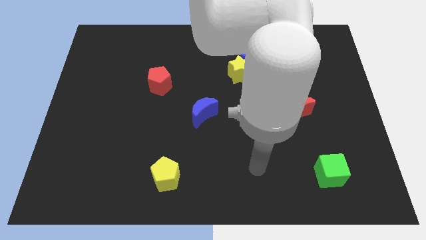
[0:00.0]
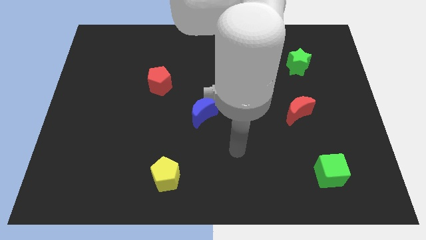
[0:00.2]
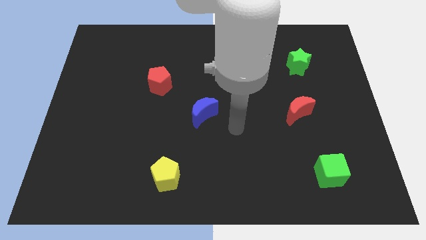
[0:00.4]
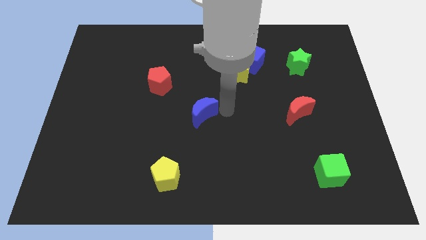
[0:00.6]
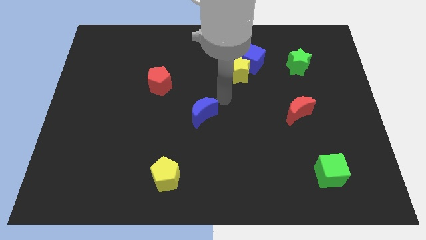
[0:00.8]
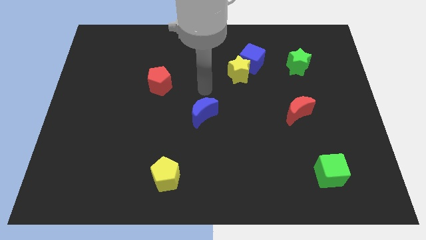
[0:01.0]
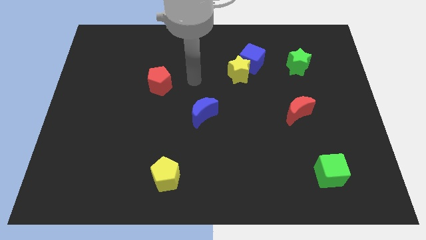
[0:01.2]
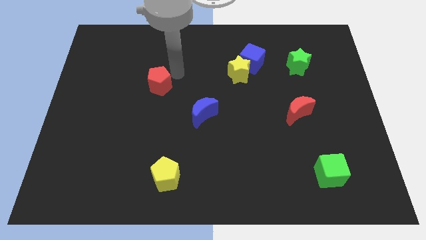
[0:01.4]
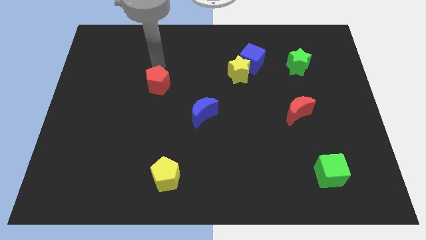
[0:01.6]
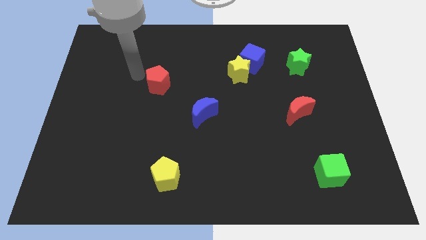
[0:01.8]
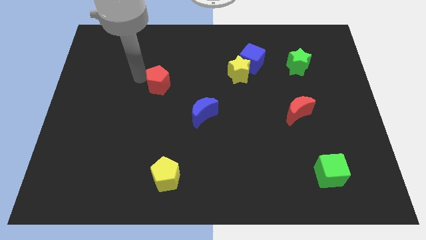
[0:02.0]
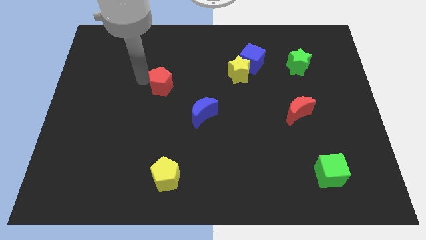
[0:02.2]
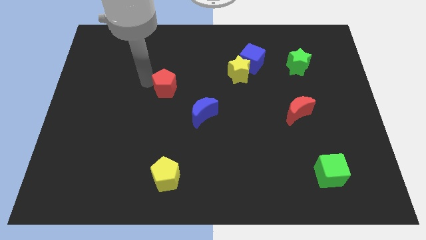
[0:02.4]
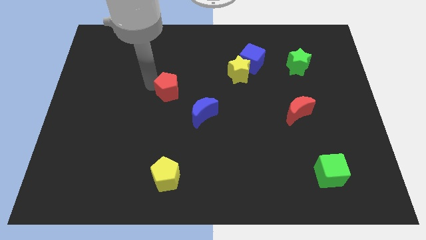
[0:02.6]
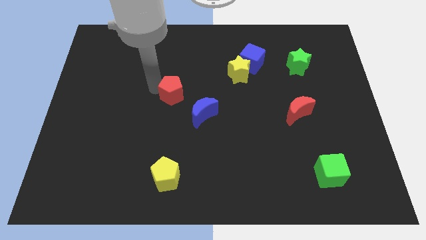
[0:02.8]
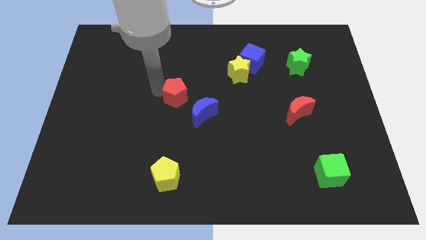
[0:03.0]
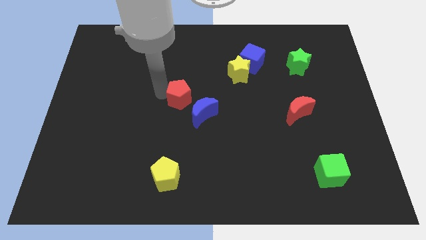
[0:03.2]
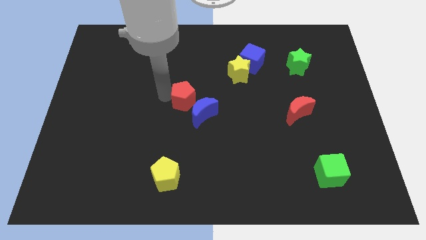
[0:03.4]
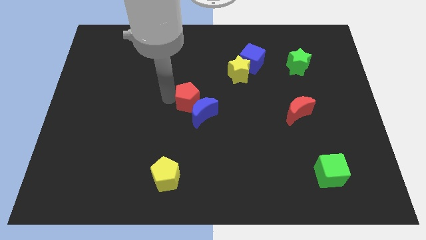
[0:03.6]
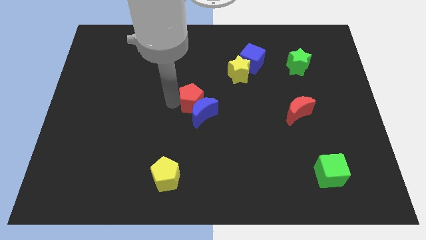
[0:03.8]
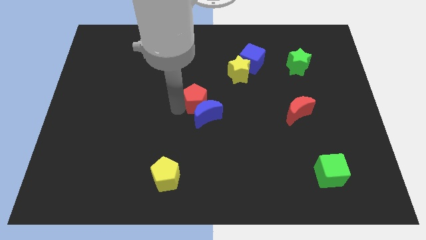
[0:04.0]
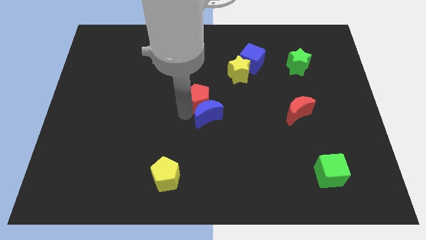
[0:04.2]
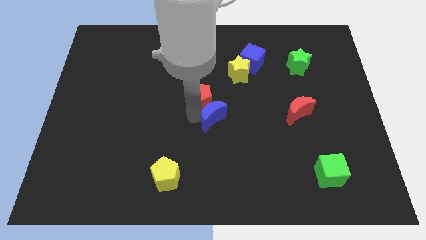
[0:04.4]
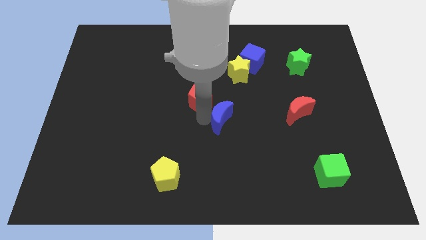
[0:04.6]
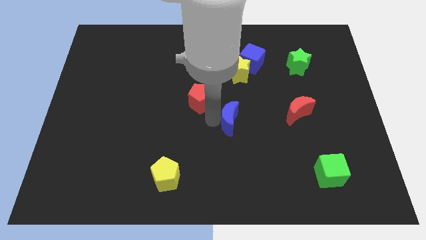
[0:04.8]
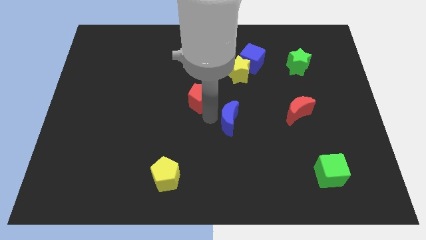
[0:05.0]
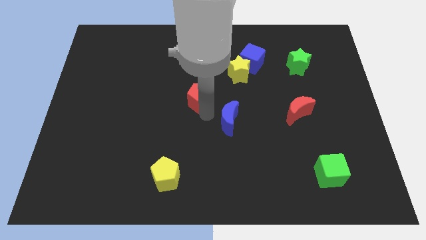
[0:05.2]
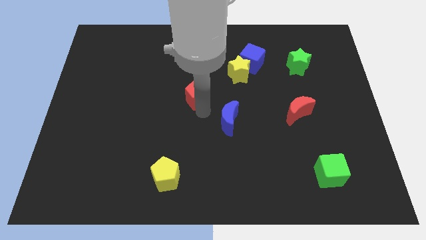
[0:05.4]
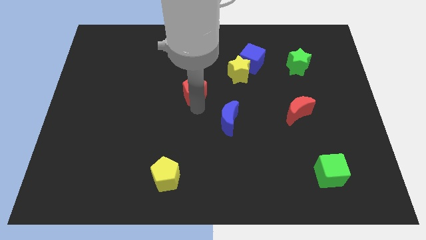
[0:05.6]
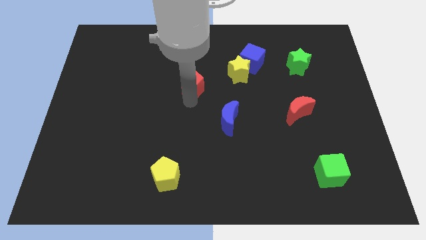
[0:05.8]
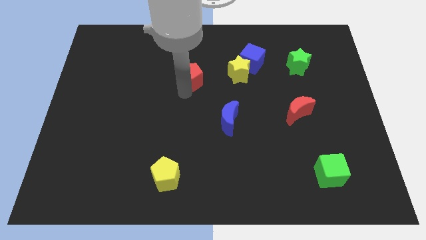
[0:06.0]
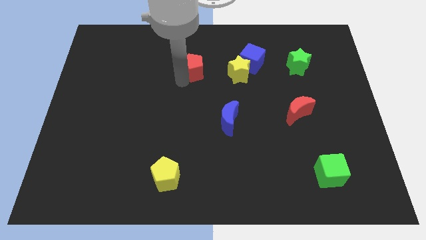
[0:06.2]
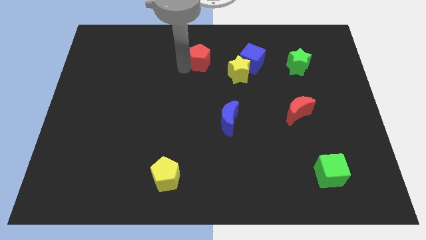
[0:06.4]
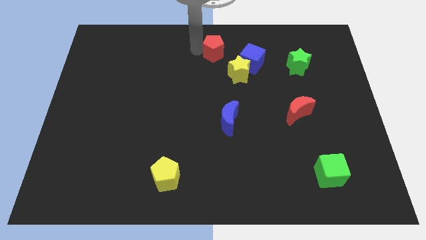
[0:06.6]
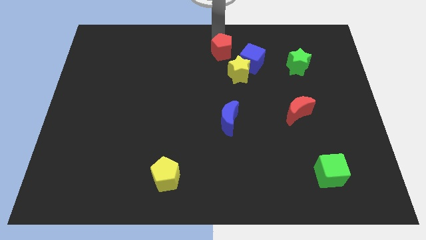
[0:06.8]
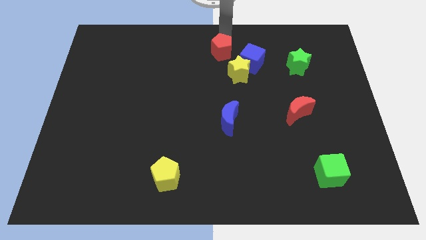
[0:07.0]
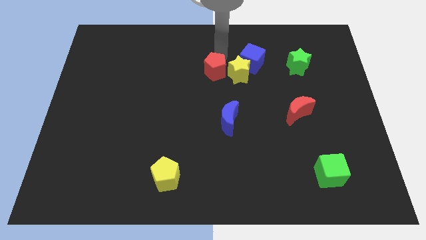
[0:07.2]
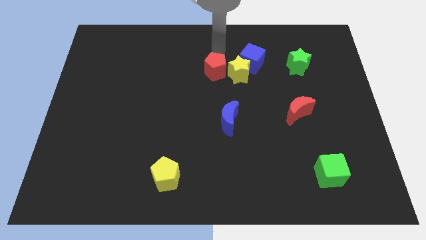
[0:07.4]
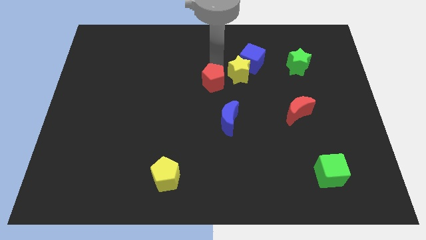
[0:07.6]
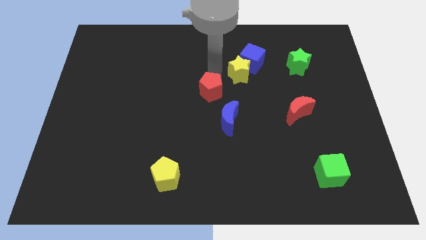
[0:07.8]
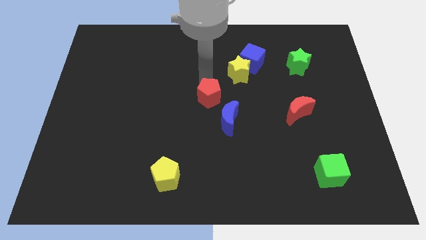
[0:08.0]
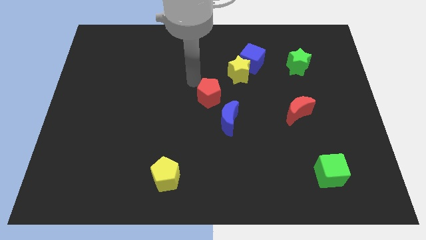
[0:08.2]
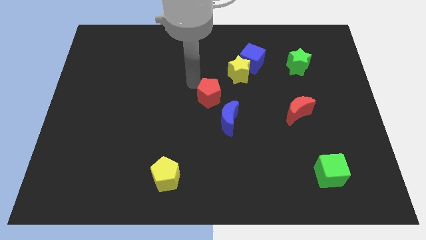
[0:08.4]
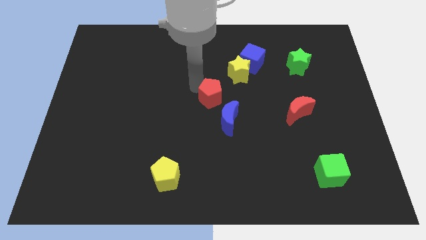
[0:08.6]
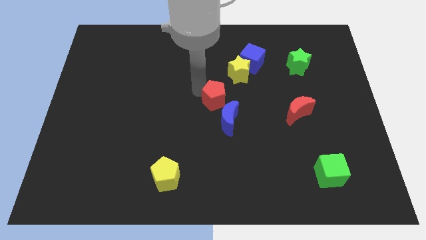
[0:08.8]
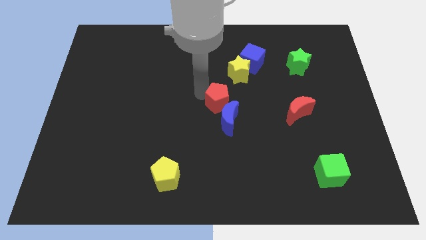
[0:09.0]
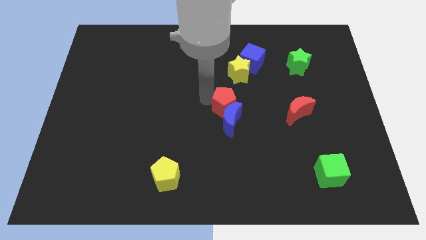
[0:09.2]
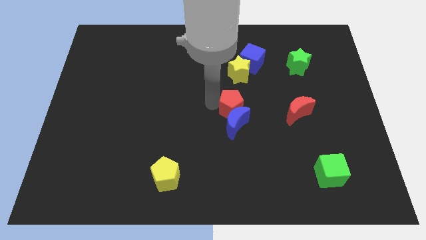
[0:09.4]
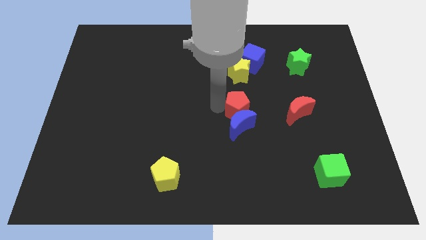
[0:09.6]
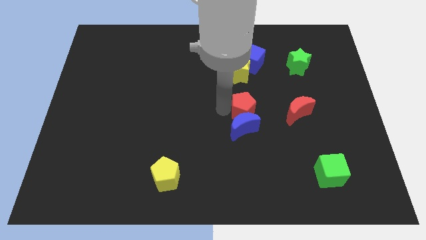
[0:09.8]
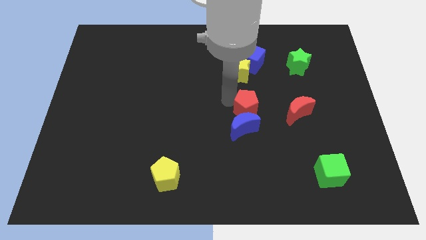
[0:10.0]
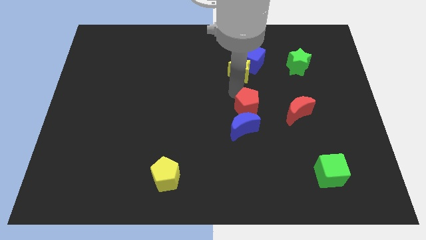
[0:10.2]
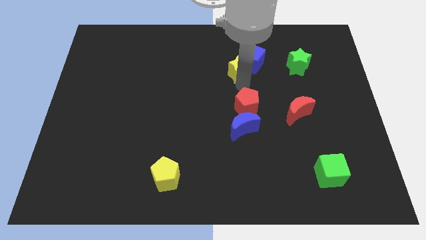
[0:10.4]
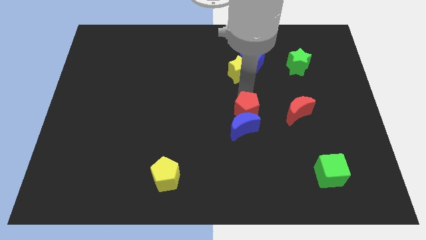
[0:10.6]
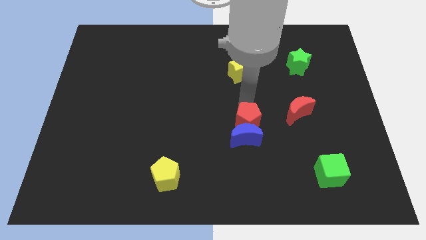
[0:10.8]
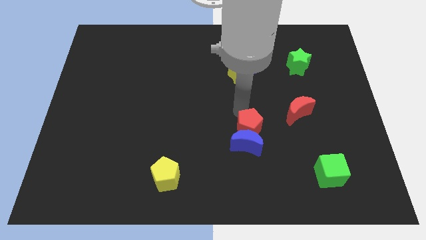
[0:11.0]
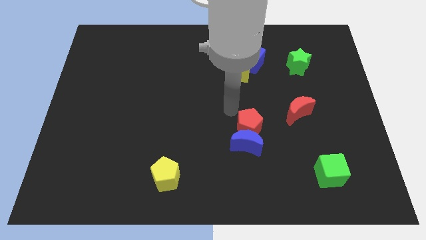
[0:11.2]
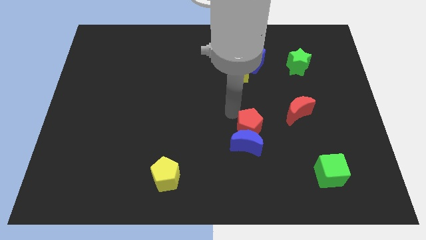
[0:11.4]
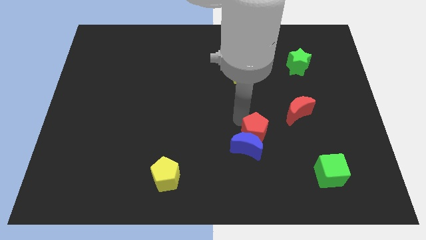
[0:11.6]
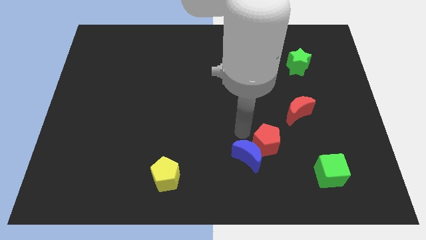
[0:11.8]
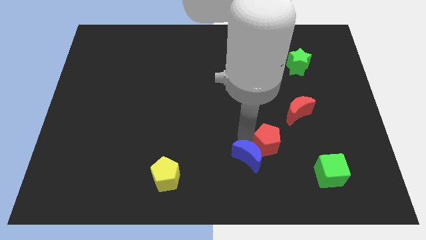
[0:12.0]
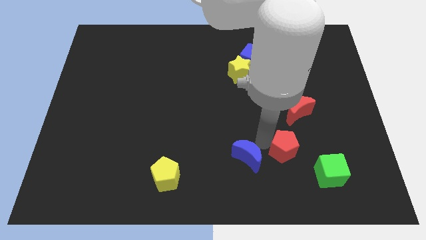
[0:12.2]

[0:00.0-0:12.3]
move the red pentagon below the red moon
